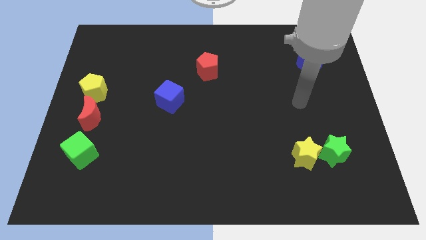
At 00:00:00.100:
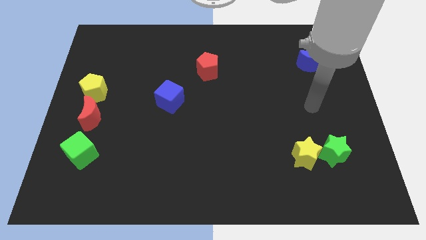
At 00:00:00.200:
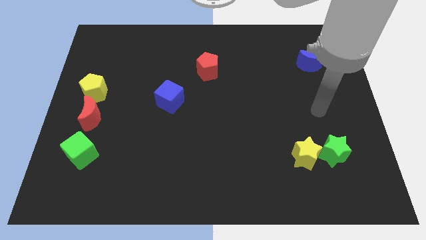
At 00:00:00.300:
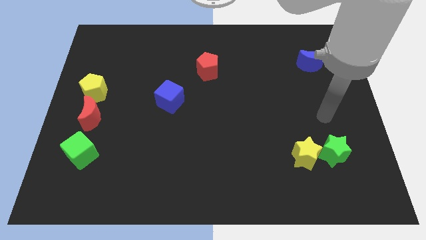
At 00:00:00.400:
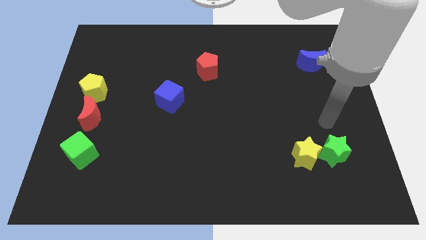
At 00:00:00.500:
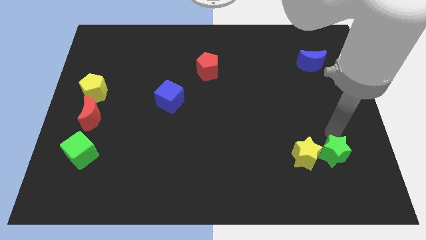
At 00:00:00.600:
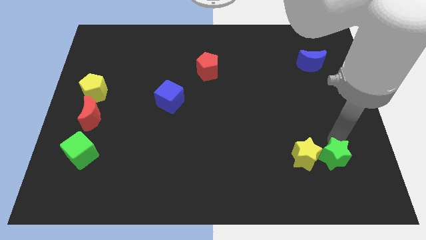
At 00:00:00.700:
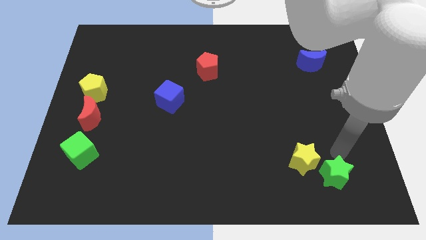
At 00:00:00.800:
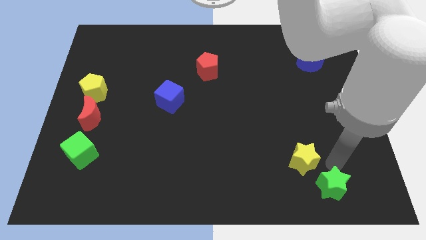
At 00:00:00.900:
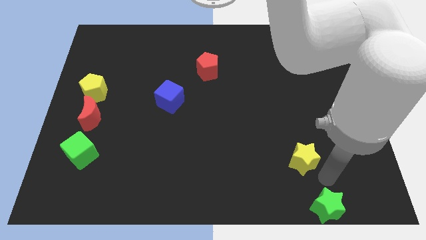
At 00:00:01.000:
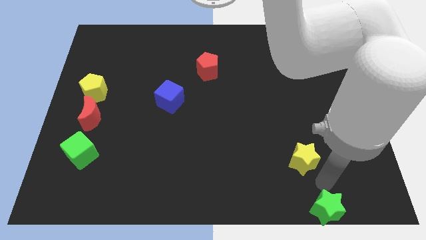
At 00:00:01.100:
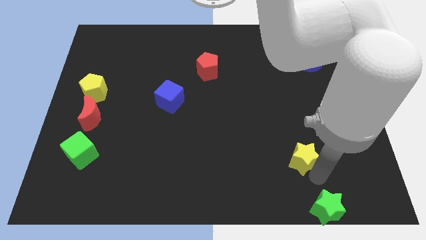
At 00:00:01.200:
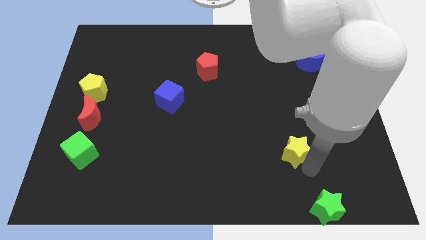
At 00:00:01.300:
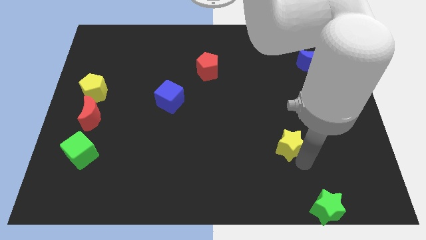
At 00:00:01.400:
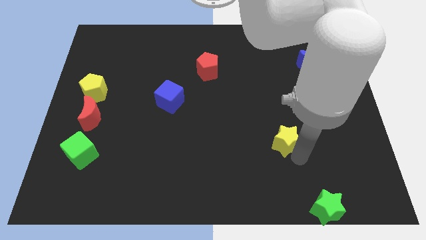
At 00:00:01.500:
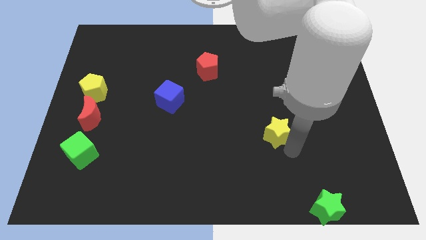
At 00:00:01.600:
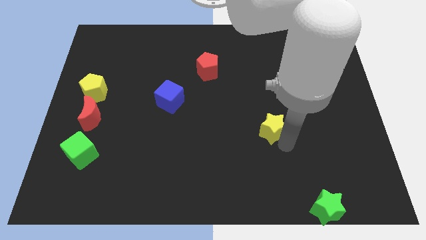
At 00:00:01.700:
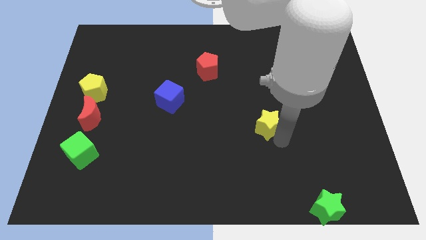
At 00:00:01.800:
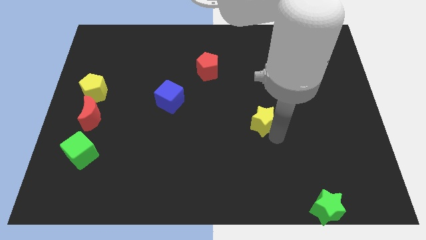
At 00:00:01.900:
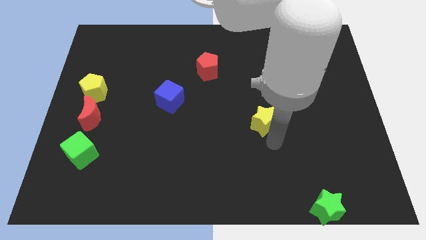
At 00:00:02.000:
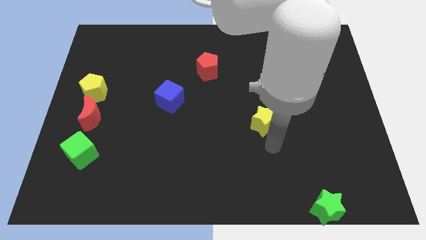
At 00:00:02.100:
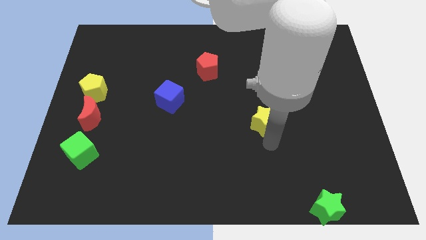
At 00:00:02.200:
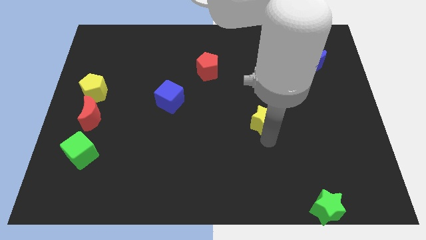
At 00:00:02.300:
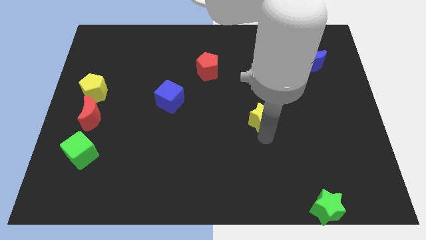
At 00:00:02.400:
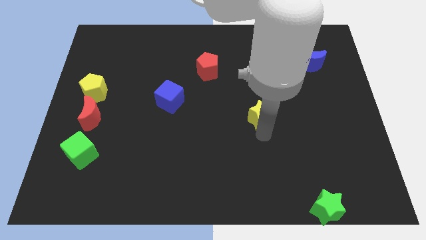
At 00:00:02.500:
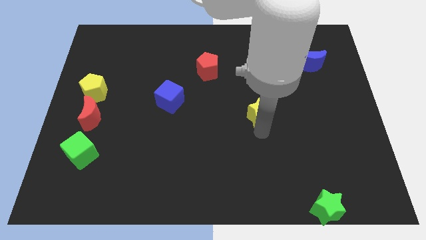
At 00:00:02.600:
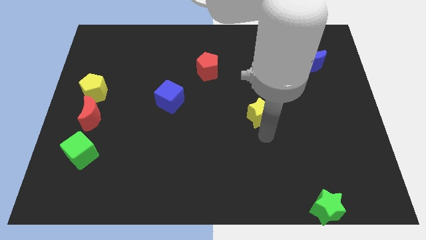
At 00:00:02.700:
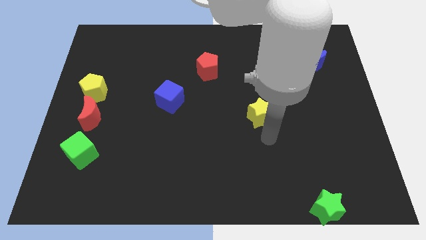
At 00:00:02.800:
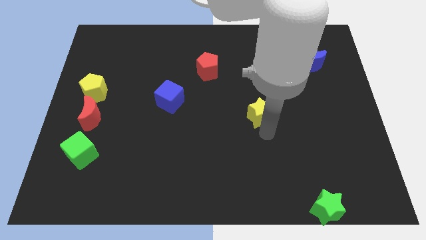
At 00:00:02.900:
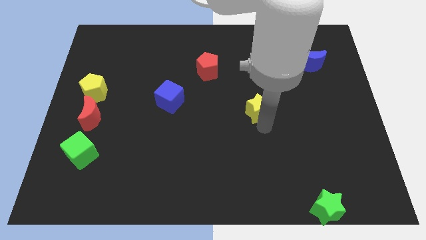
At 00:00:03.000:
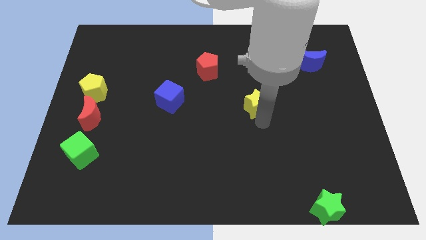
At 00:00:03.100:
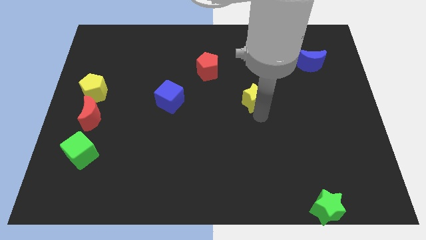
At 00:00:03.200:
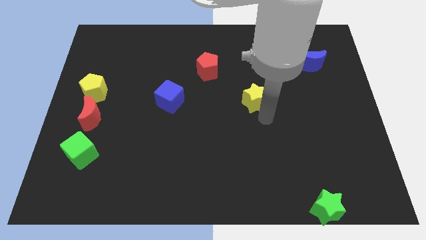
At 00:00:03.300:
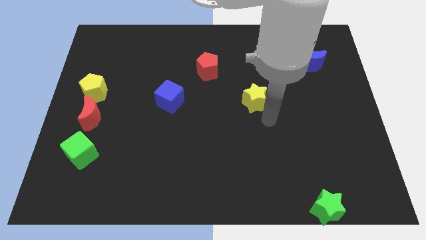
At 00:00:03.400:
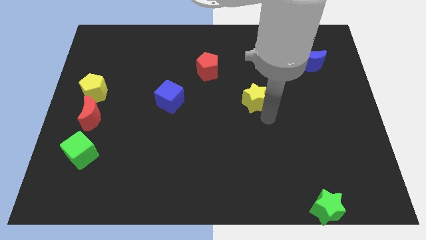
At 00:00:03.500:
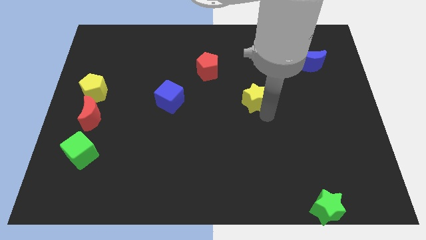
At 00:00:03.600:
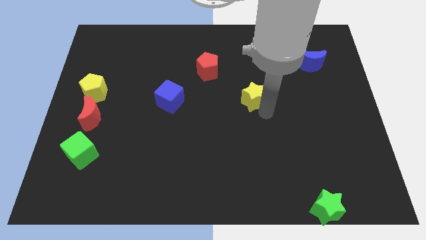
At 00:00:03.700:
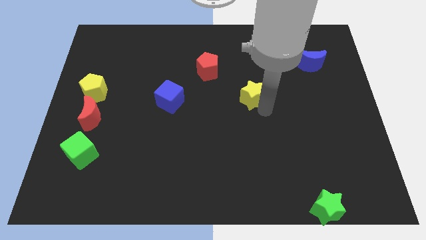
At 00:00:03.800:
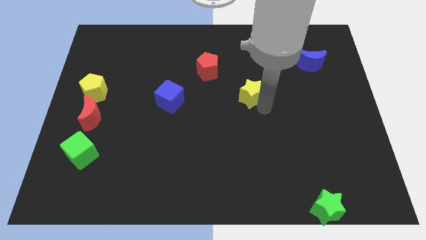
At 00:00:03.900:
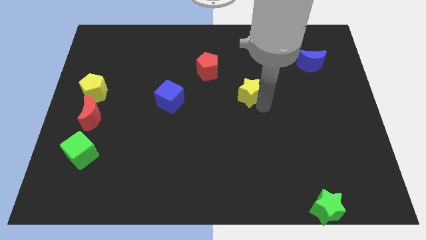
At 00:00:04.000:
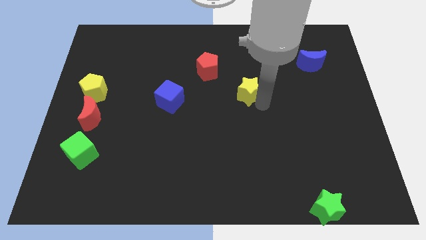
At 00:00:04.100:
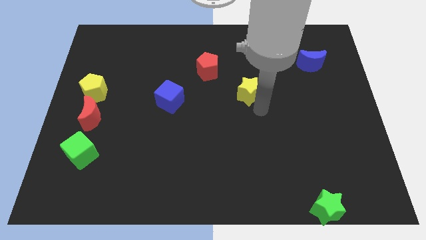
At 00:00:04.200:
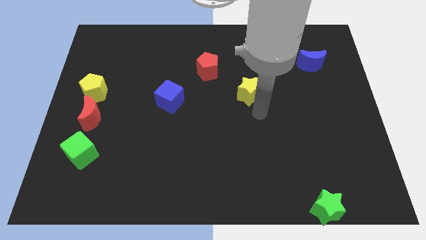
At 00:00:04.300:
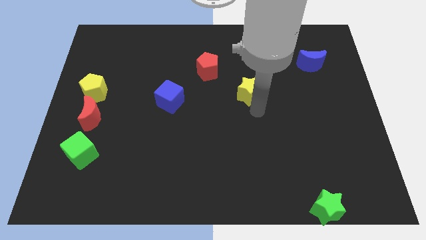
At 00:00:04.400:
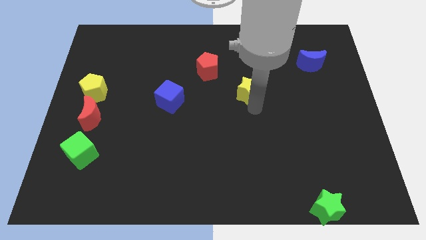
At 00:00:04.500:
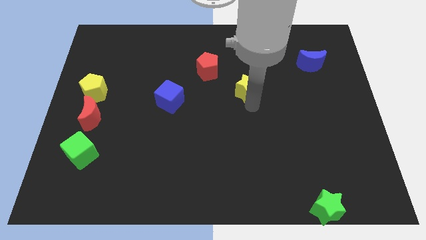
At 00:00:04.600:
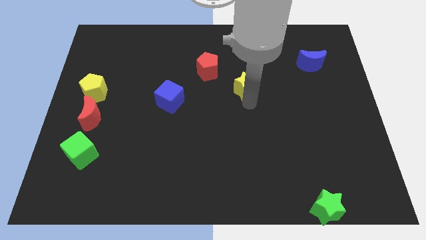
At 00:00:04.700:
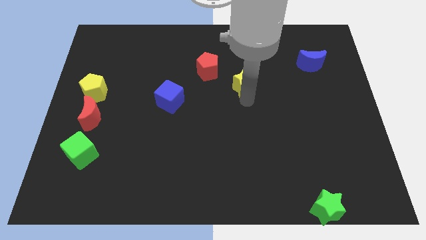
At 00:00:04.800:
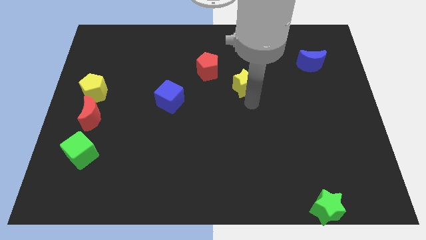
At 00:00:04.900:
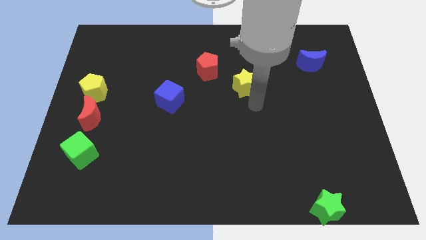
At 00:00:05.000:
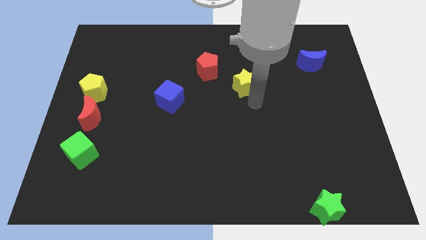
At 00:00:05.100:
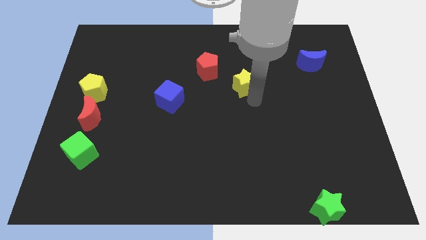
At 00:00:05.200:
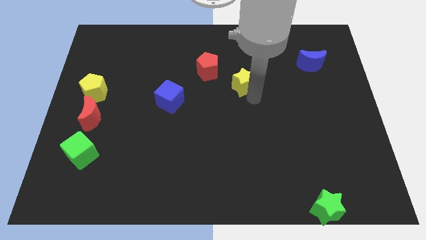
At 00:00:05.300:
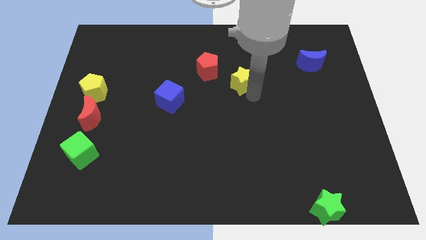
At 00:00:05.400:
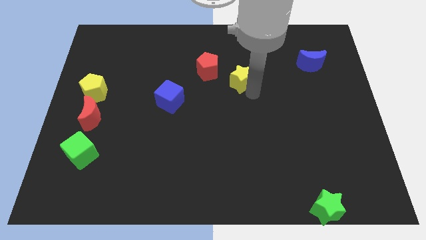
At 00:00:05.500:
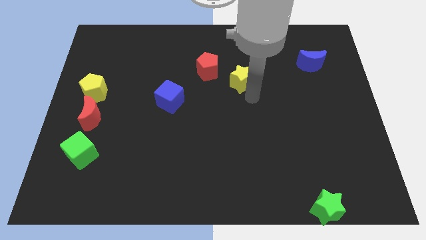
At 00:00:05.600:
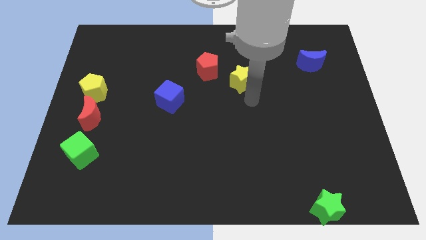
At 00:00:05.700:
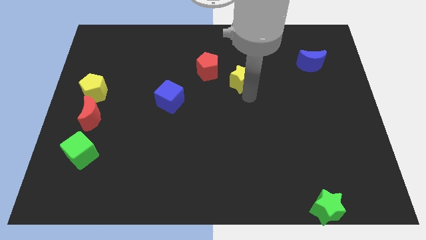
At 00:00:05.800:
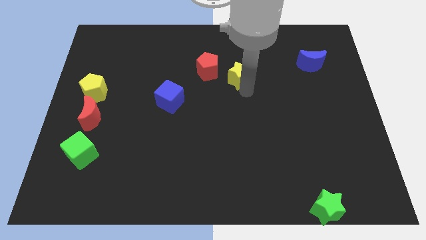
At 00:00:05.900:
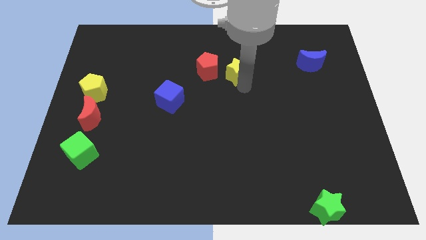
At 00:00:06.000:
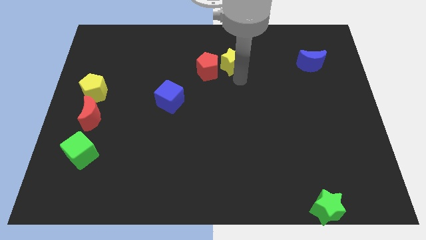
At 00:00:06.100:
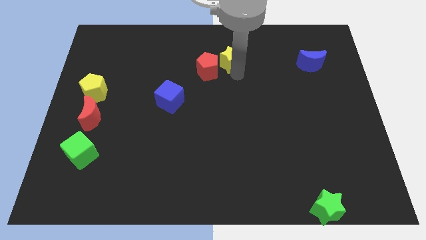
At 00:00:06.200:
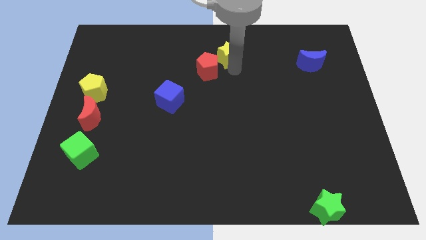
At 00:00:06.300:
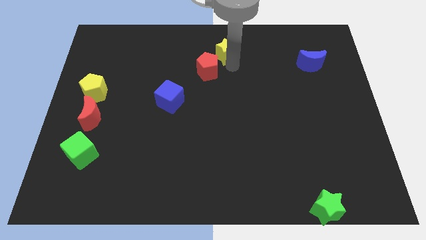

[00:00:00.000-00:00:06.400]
push the yellow star to the top side
